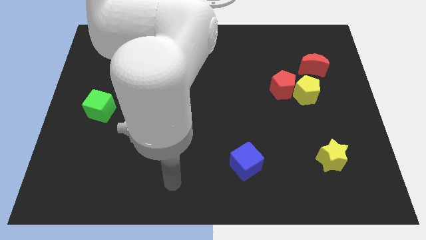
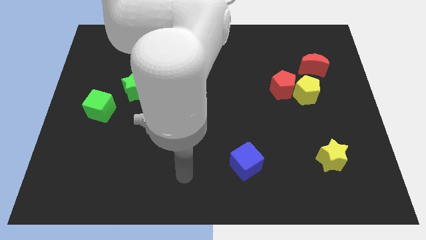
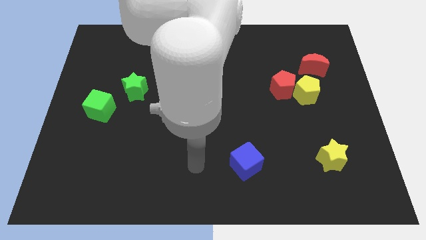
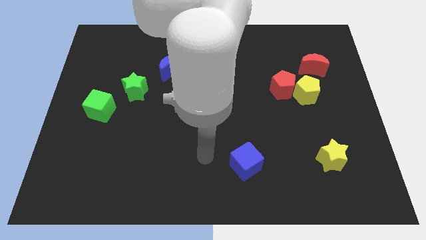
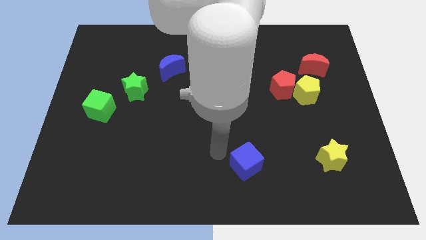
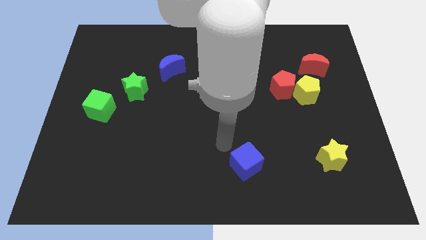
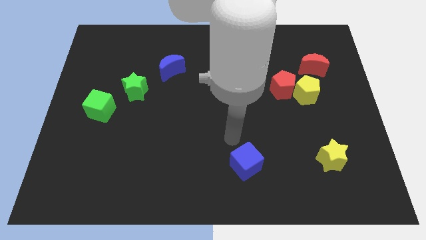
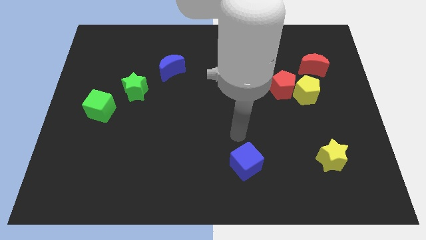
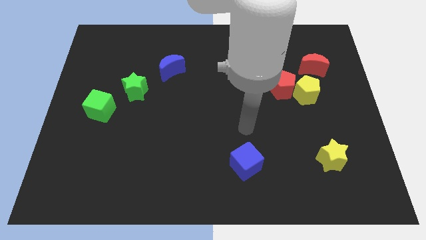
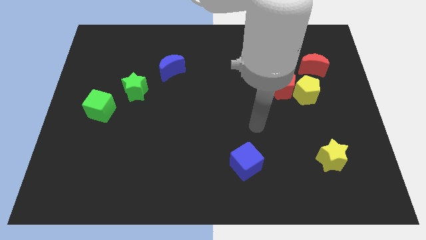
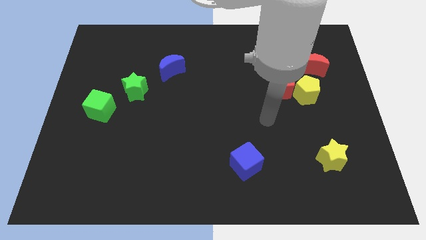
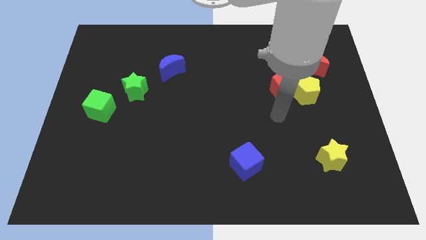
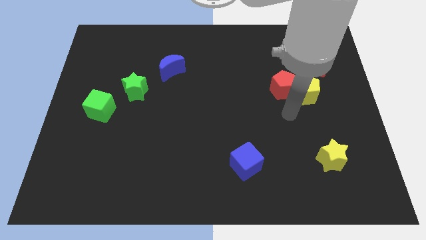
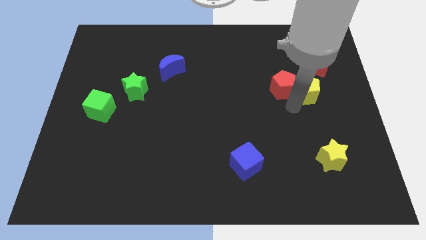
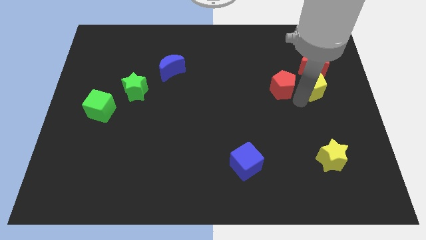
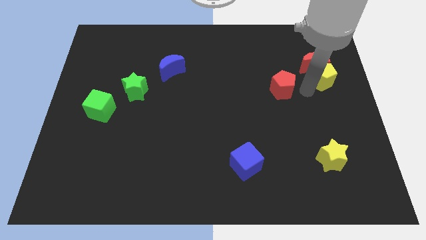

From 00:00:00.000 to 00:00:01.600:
move the red pentagon away from the yellow pentagon

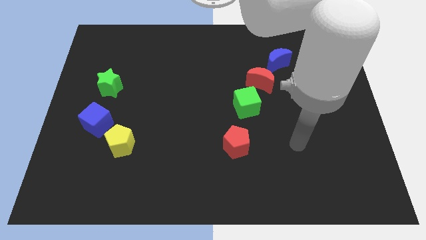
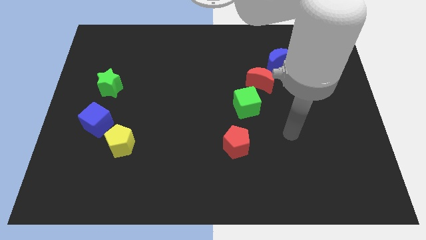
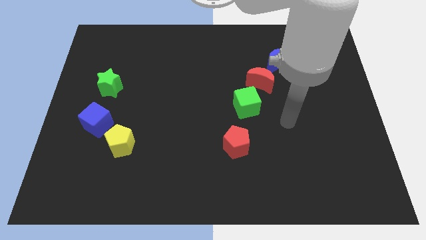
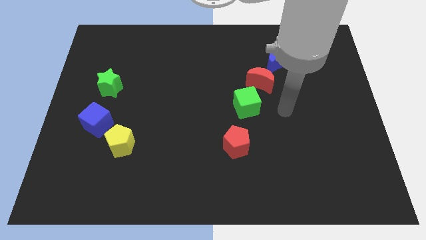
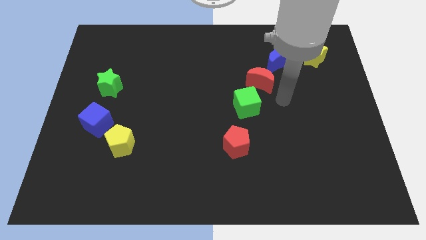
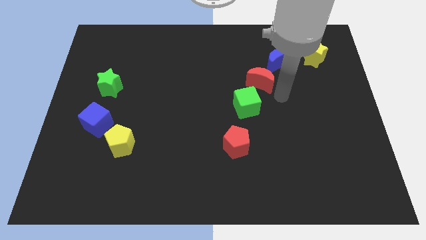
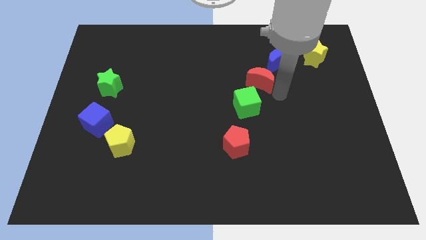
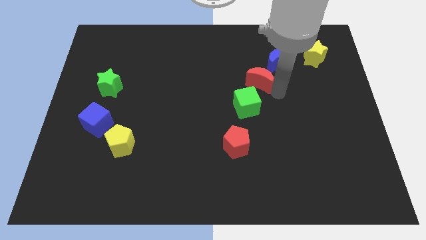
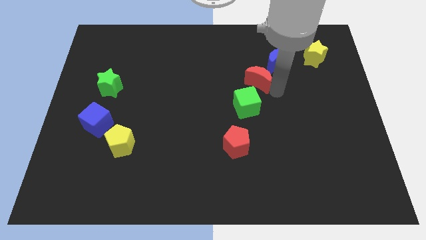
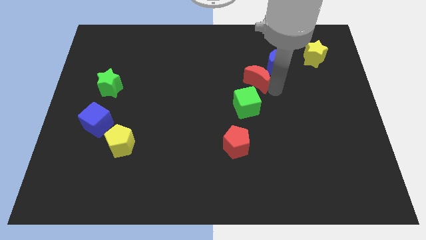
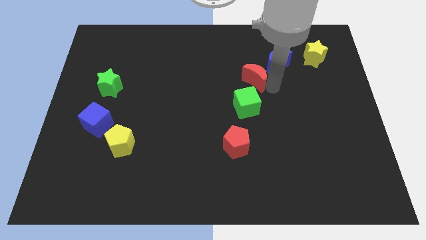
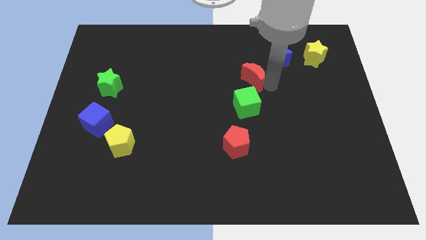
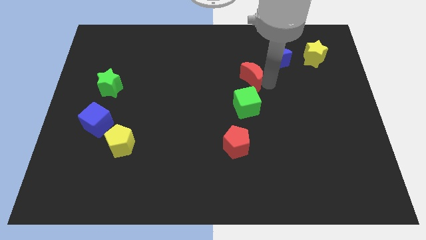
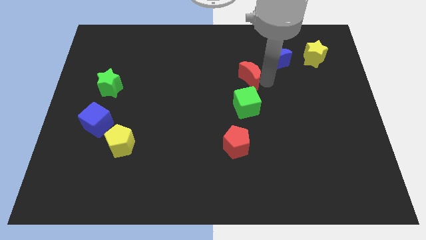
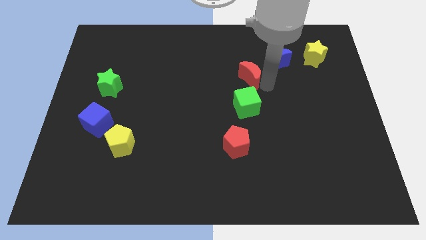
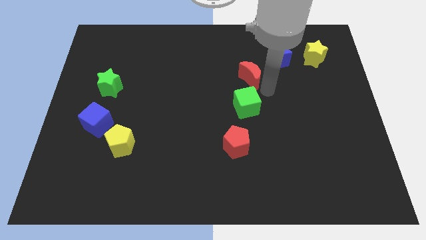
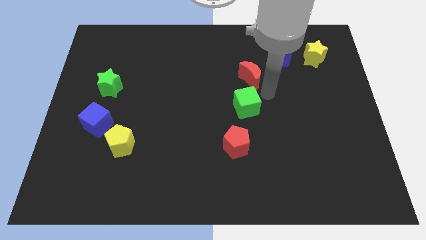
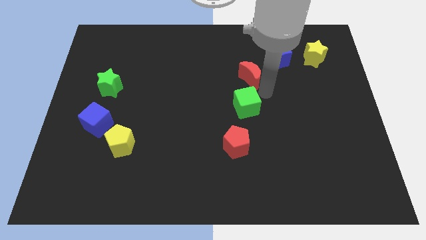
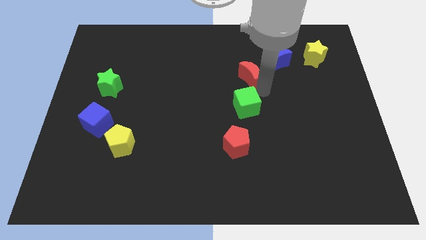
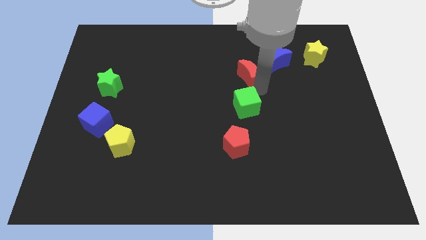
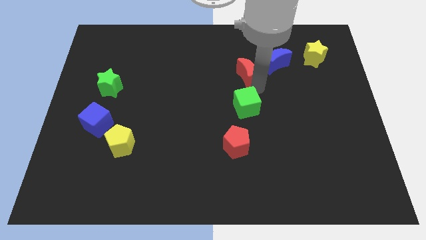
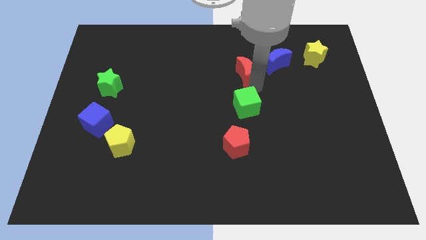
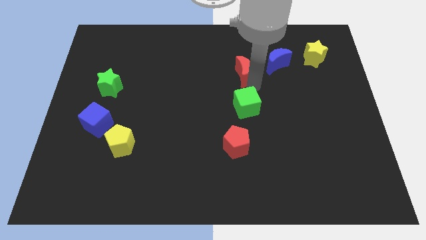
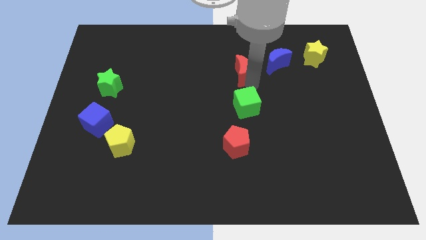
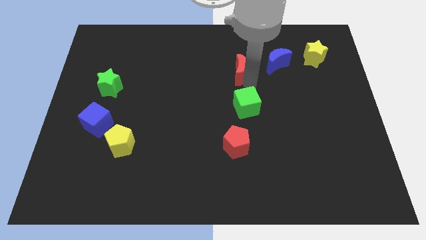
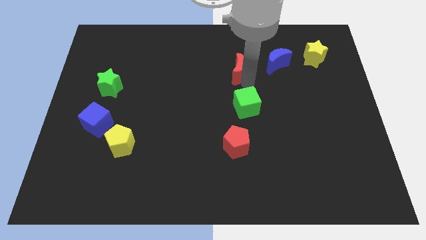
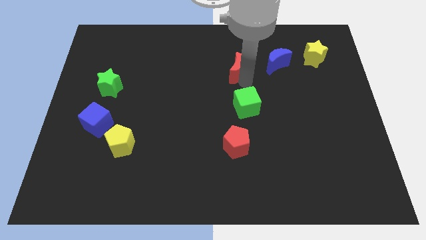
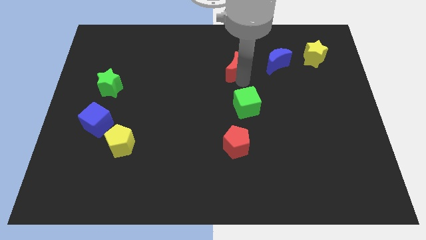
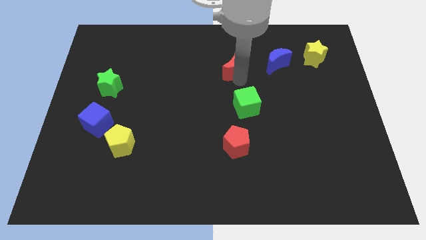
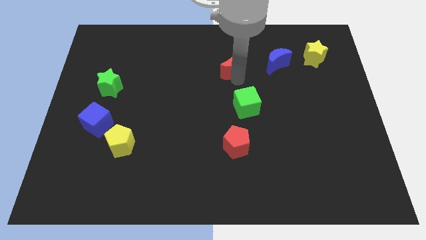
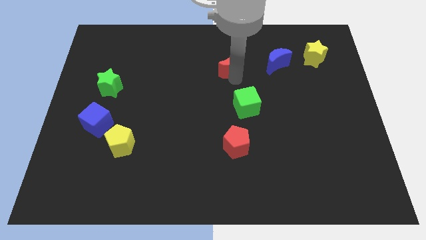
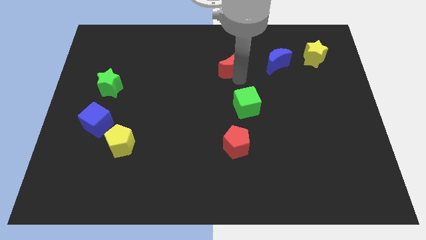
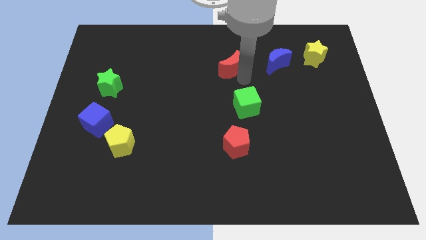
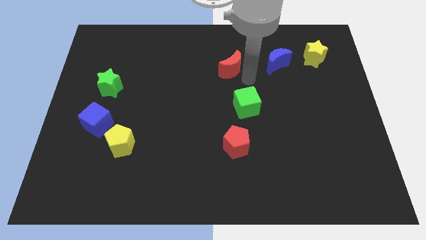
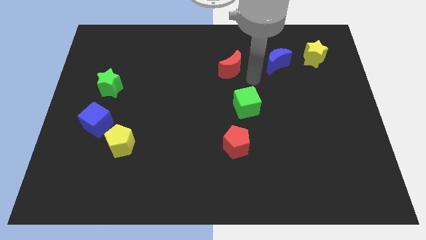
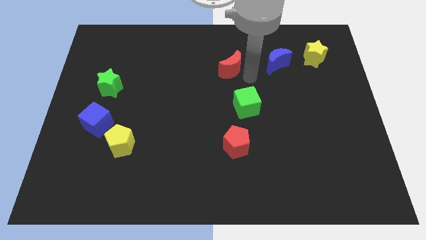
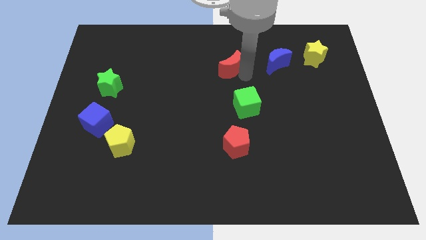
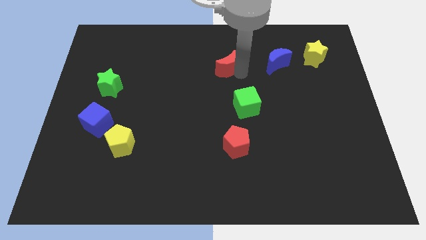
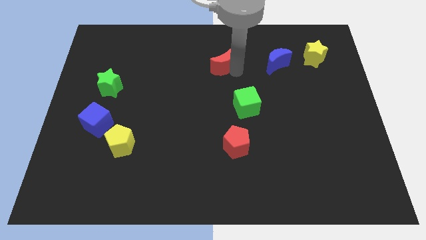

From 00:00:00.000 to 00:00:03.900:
separate the red moon from the blue moon and green cube

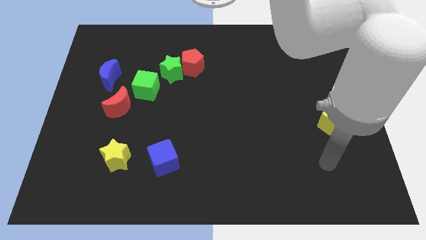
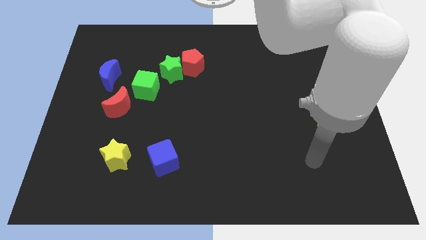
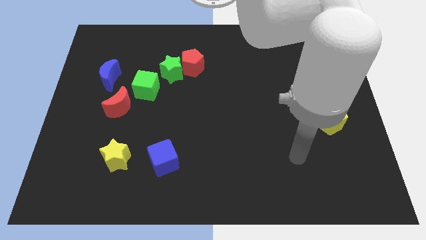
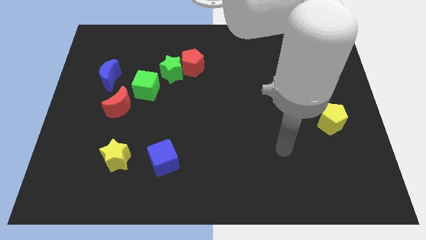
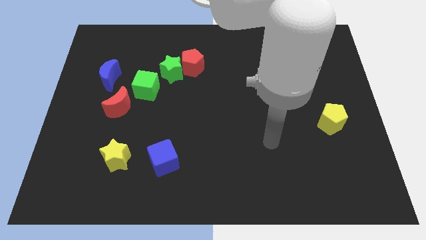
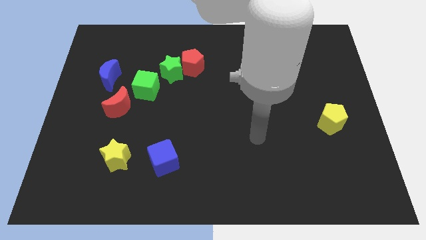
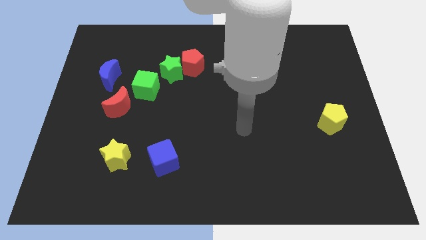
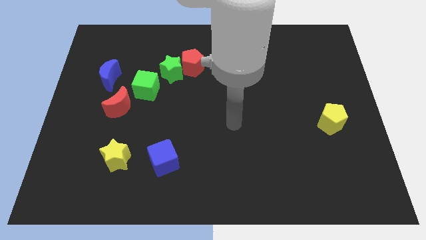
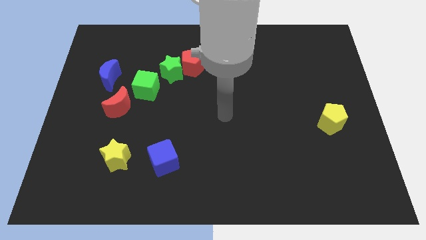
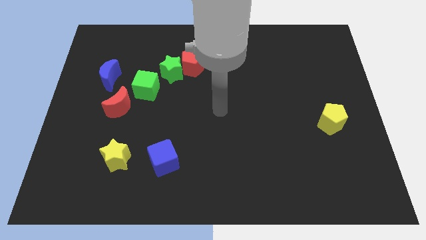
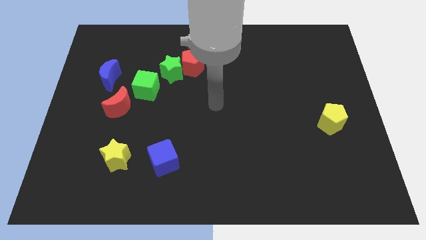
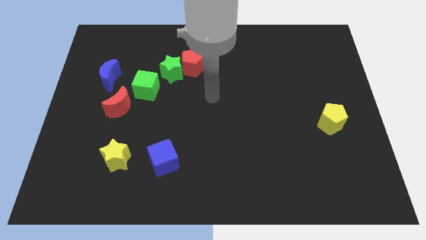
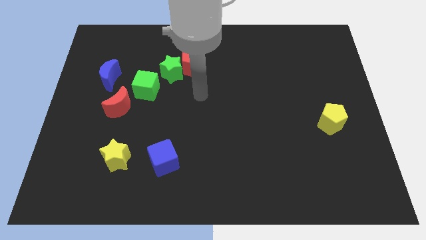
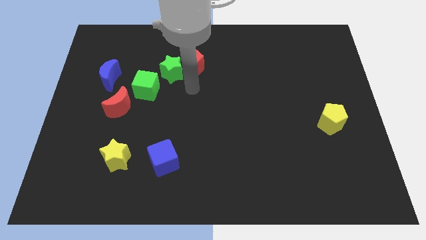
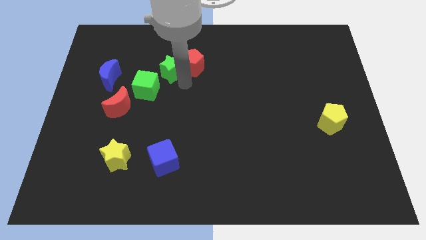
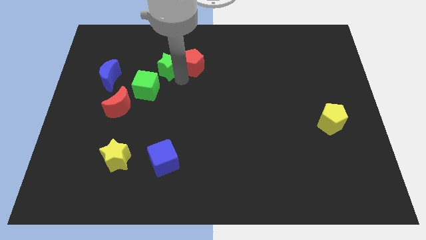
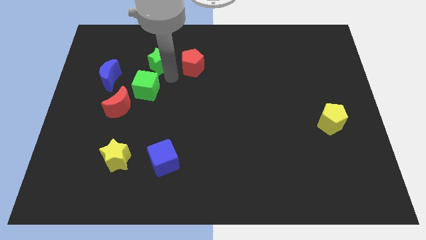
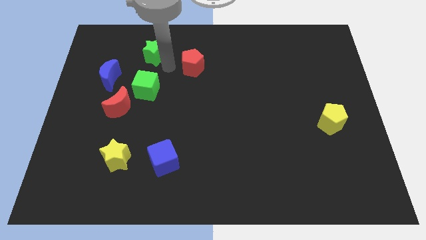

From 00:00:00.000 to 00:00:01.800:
move the red pentagon away from the green star

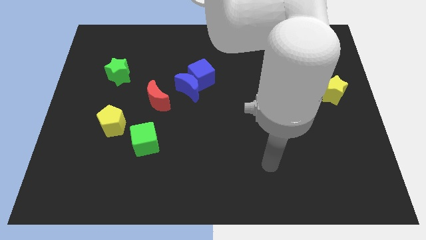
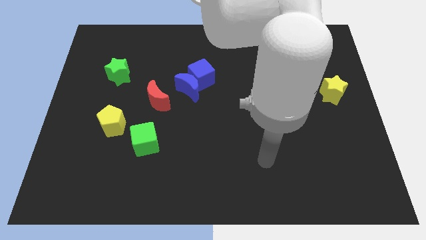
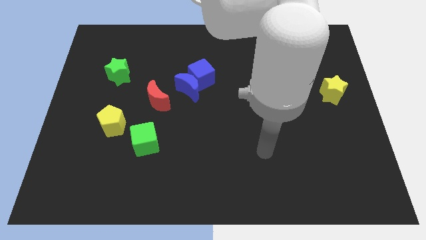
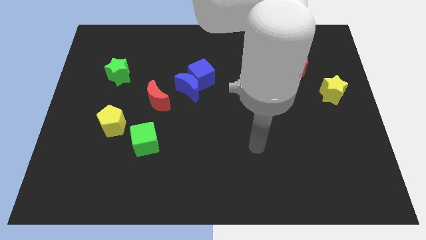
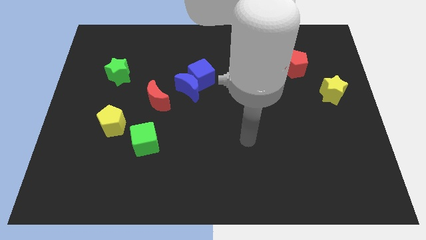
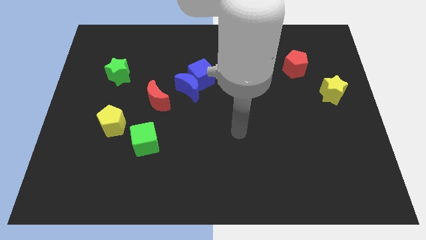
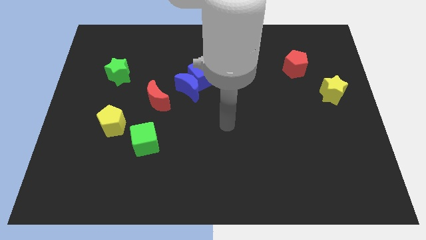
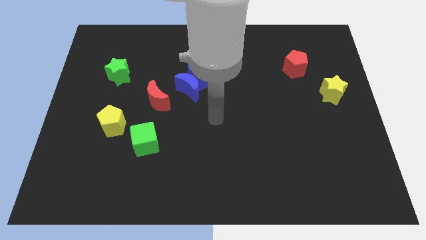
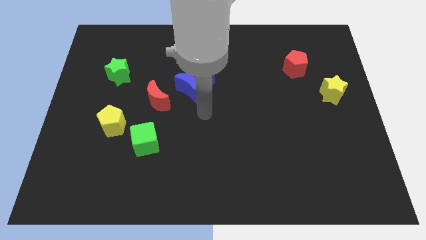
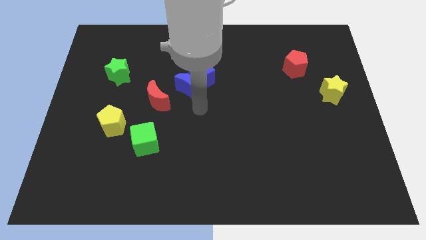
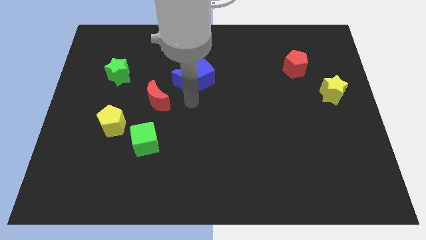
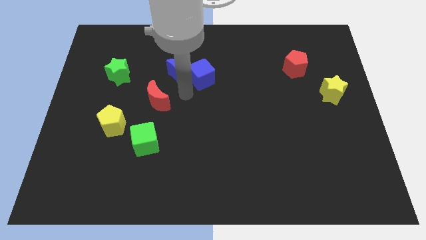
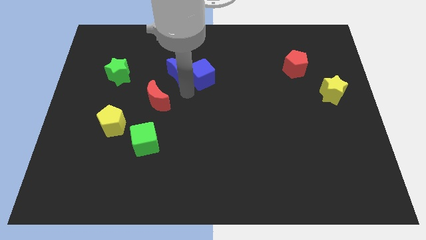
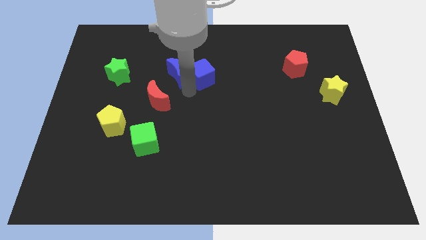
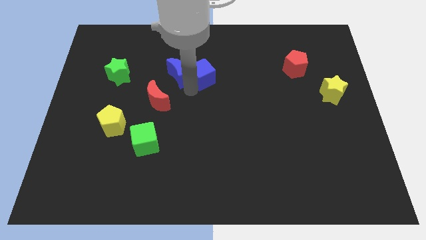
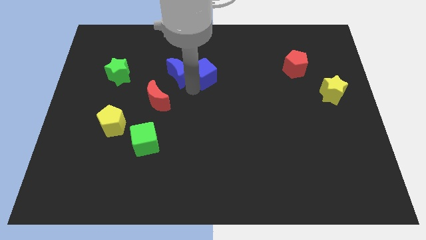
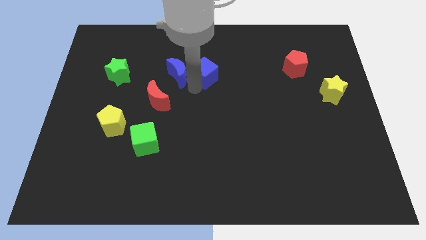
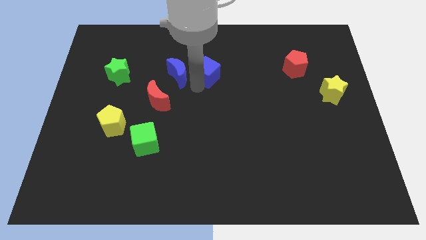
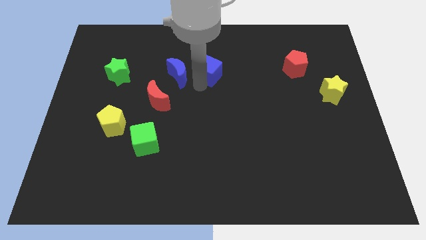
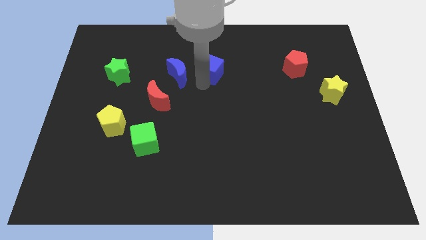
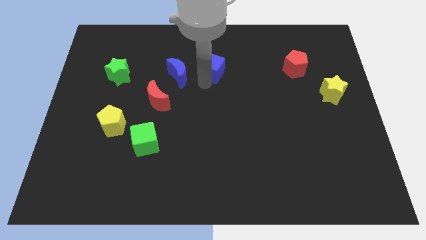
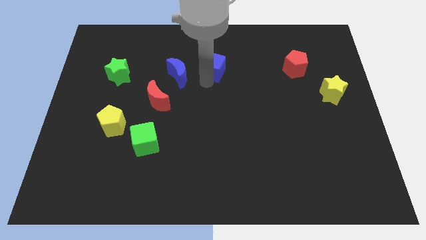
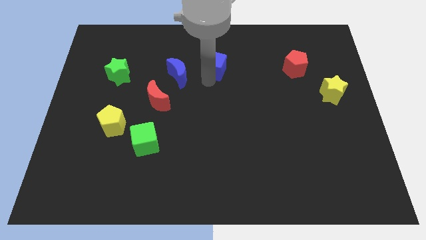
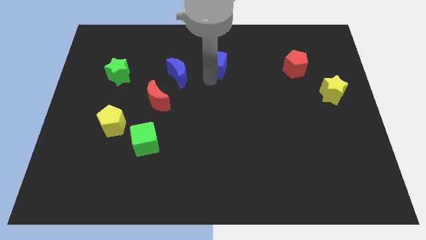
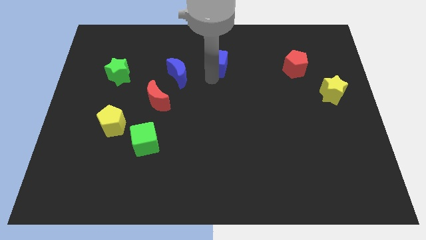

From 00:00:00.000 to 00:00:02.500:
move the blue cube away from the blue moon
